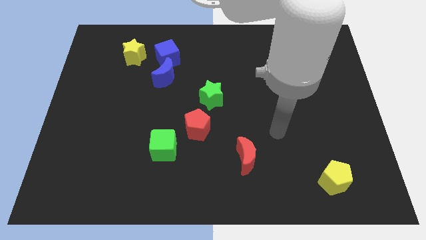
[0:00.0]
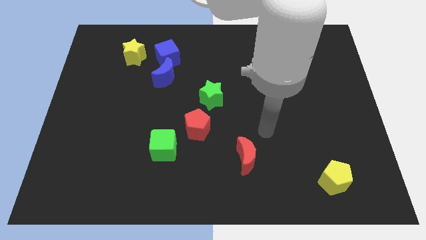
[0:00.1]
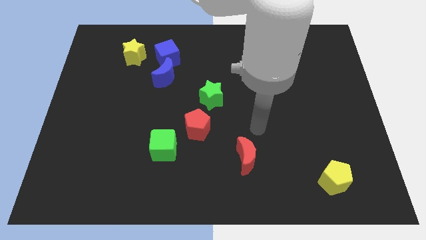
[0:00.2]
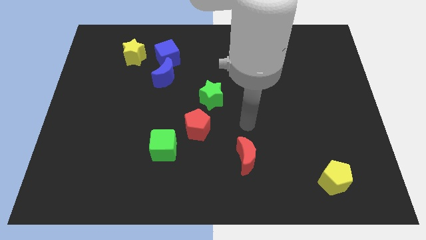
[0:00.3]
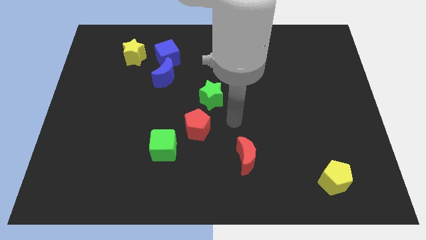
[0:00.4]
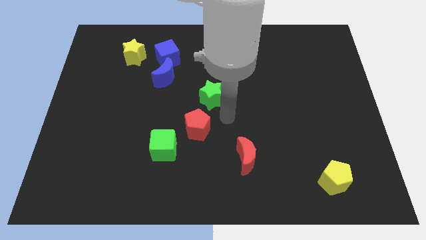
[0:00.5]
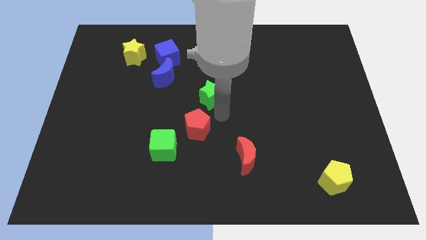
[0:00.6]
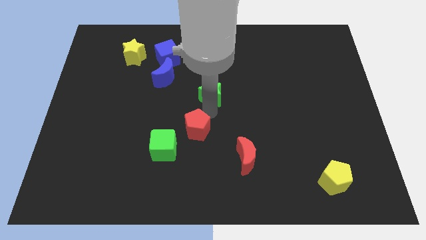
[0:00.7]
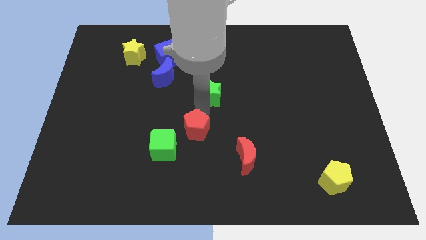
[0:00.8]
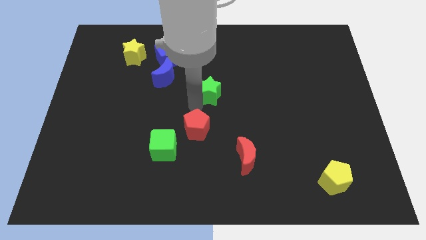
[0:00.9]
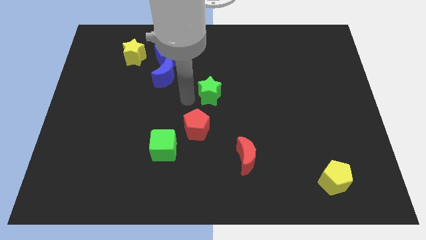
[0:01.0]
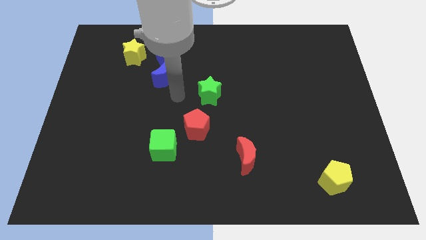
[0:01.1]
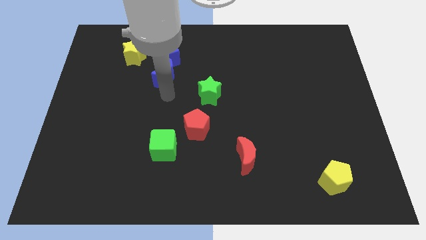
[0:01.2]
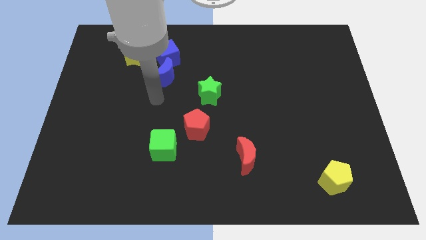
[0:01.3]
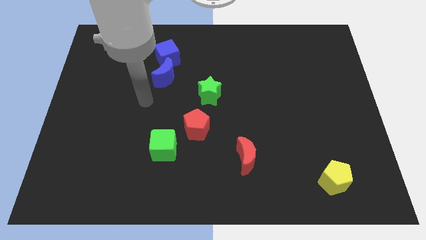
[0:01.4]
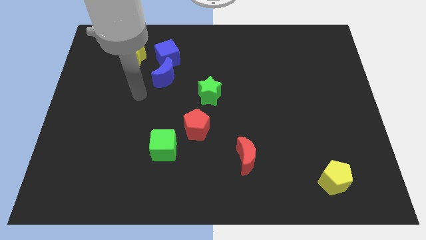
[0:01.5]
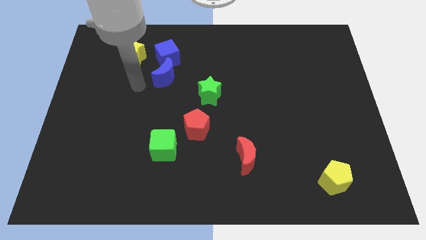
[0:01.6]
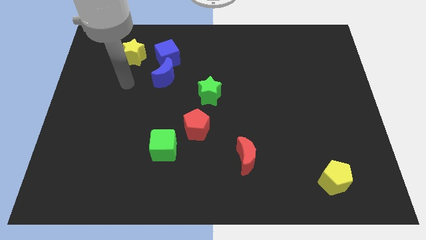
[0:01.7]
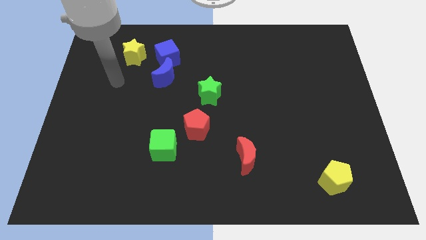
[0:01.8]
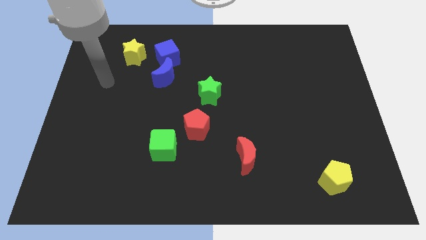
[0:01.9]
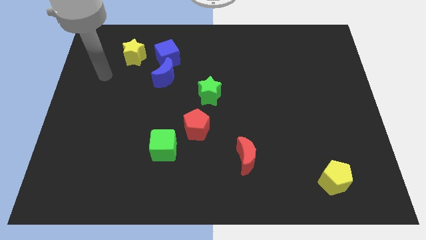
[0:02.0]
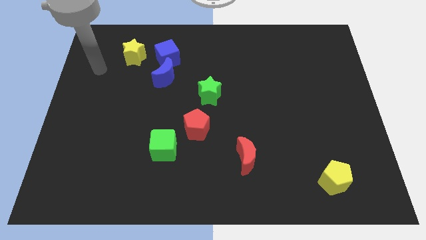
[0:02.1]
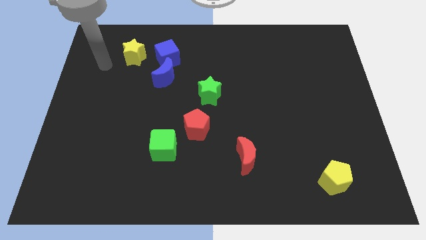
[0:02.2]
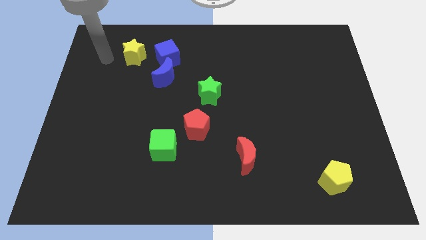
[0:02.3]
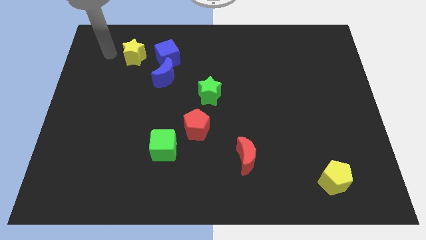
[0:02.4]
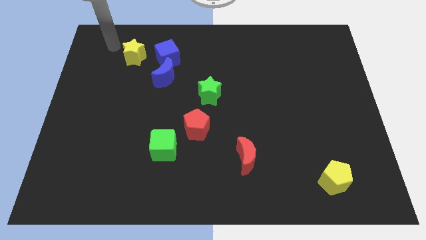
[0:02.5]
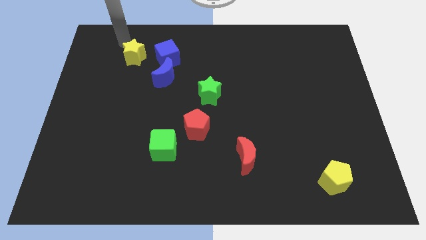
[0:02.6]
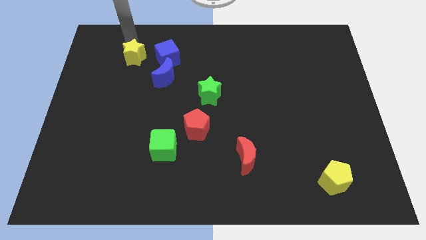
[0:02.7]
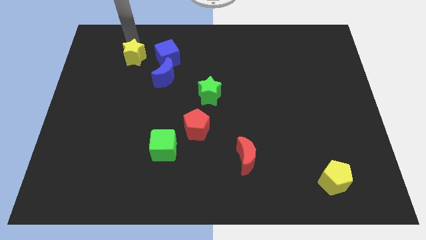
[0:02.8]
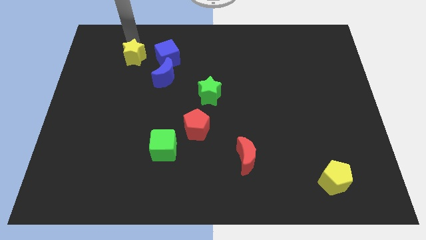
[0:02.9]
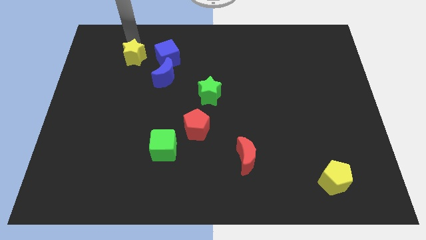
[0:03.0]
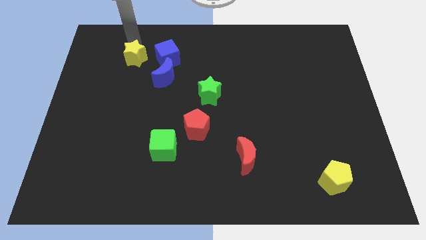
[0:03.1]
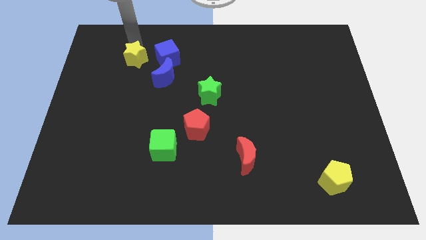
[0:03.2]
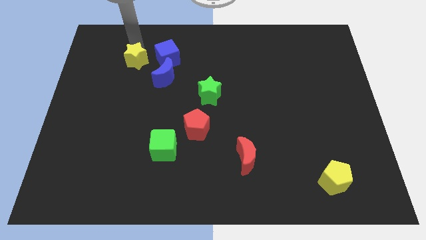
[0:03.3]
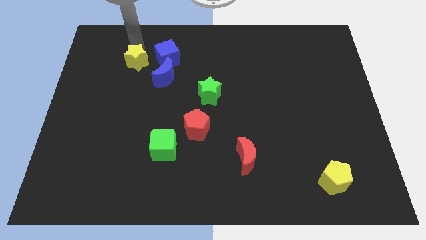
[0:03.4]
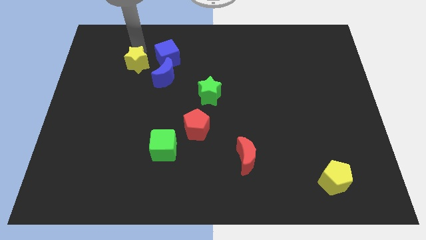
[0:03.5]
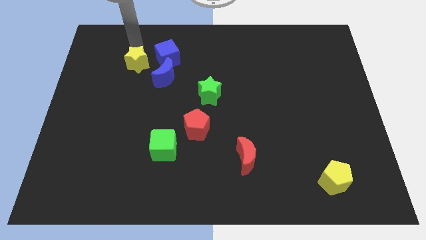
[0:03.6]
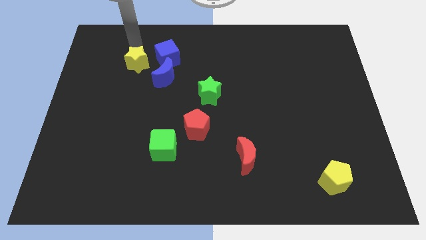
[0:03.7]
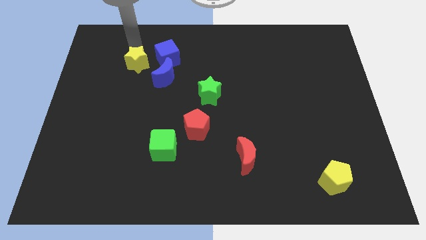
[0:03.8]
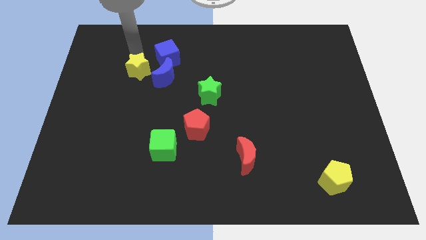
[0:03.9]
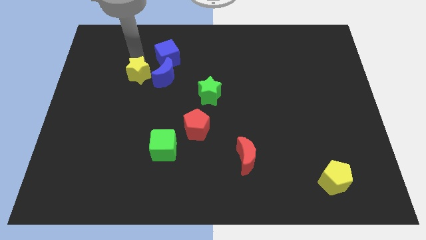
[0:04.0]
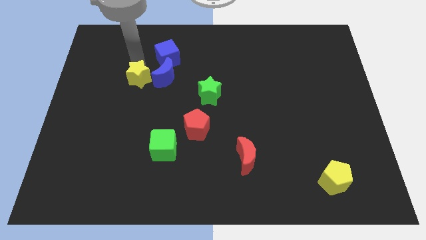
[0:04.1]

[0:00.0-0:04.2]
slightly move the yellow star down

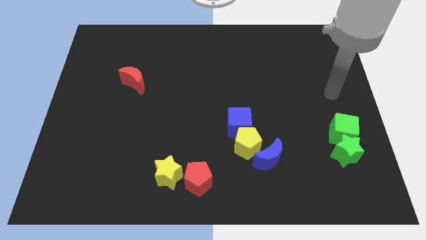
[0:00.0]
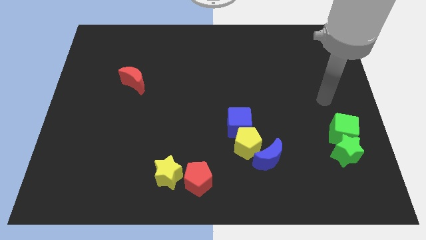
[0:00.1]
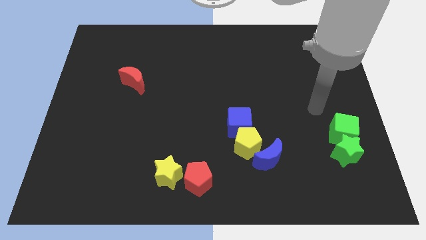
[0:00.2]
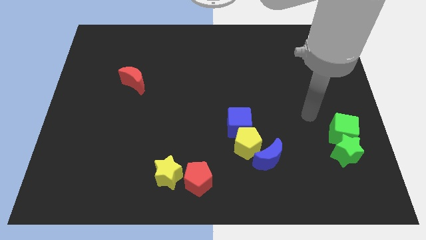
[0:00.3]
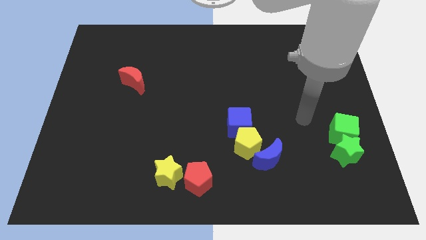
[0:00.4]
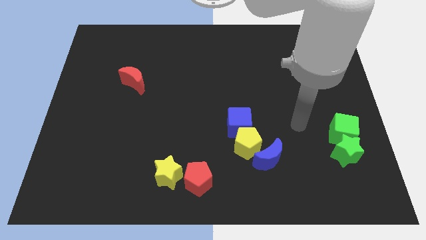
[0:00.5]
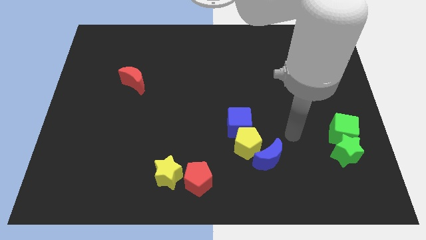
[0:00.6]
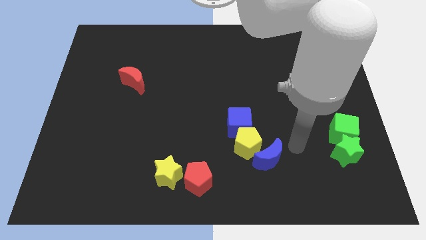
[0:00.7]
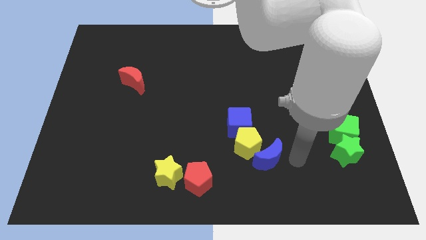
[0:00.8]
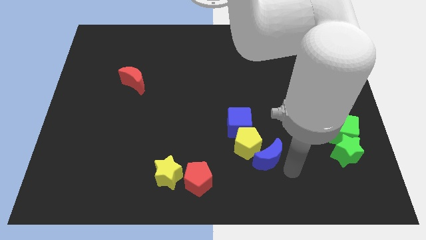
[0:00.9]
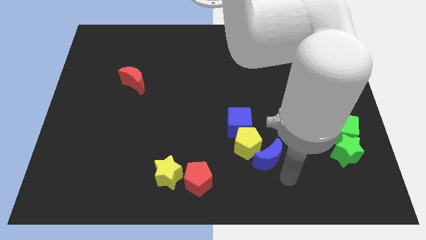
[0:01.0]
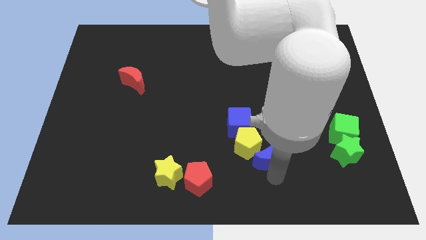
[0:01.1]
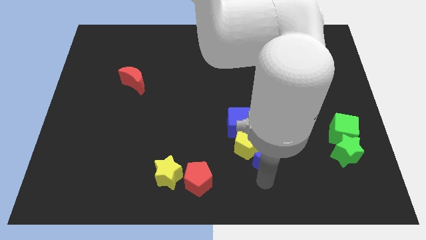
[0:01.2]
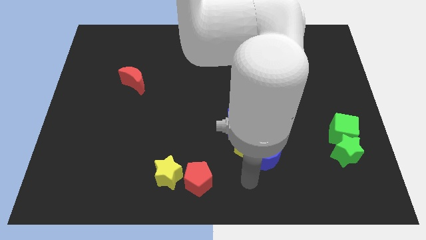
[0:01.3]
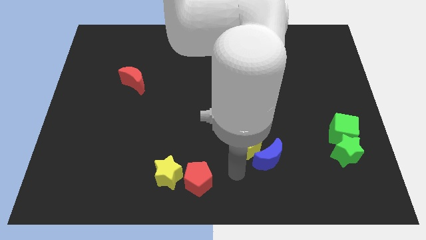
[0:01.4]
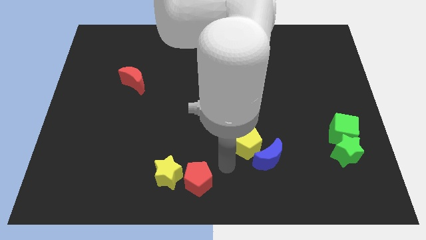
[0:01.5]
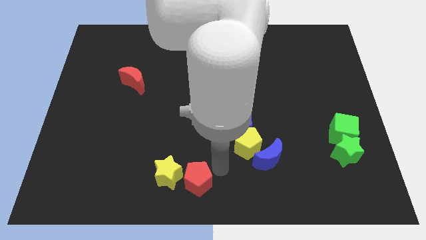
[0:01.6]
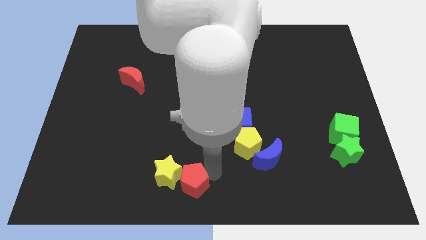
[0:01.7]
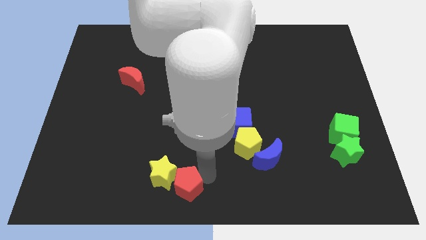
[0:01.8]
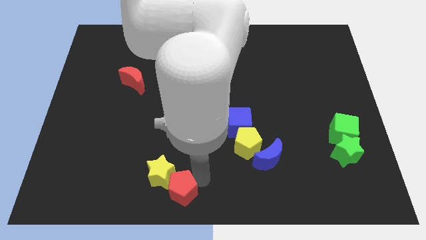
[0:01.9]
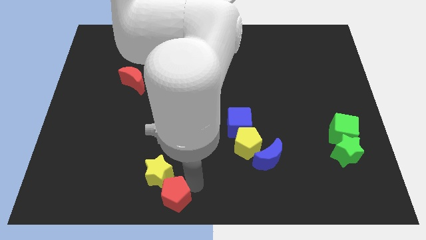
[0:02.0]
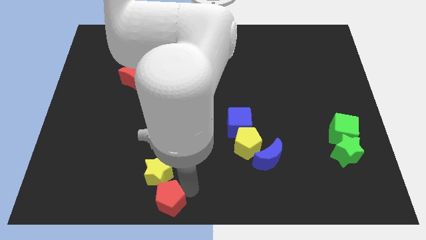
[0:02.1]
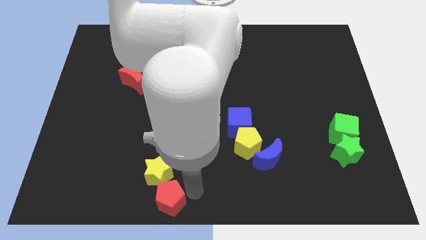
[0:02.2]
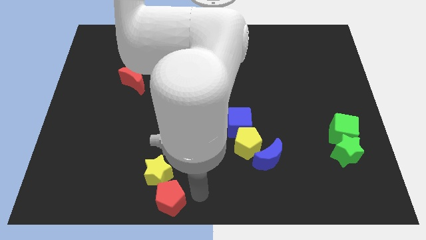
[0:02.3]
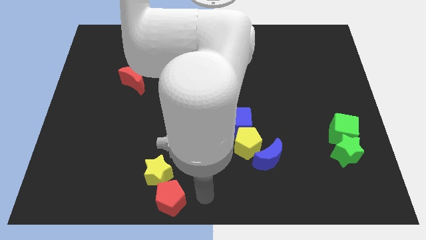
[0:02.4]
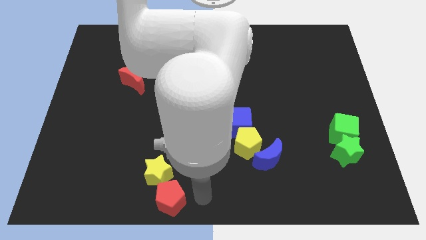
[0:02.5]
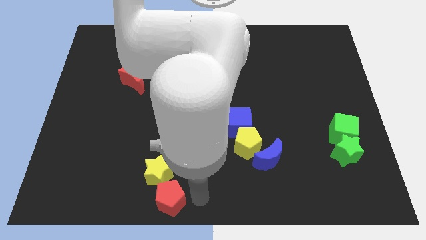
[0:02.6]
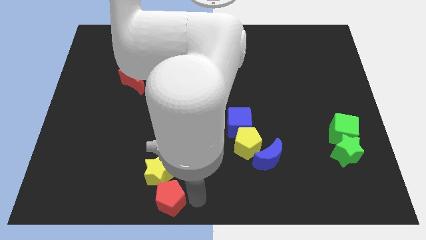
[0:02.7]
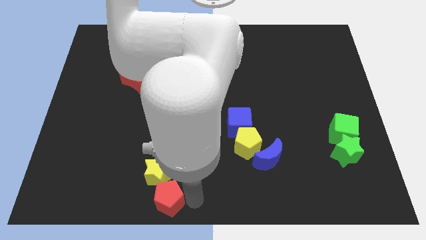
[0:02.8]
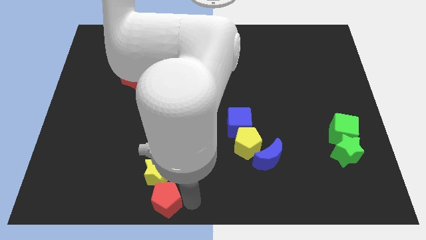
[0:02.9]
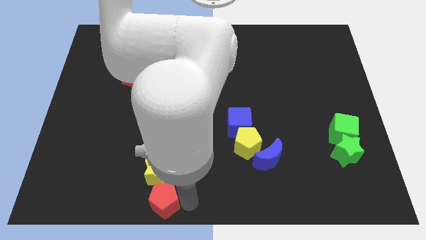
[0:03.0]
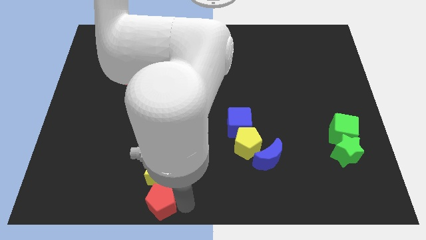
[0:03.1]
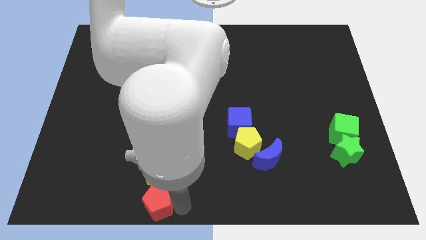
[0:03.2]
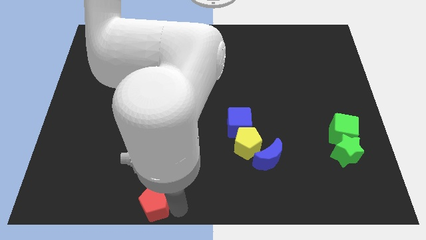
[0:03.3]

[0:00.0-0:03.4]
slightly move the red pentagon left

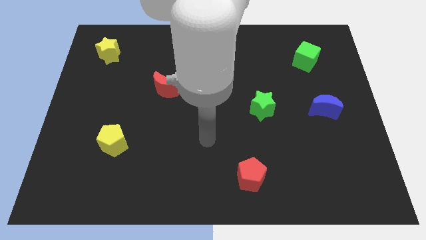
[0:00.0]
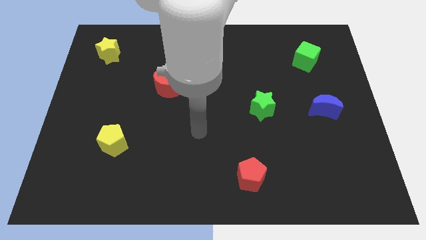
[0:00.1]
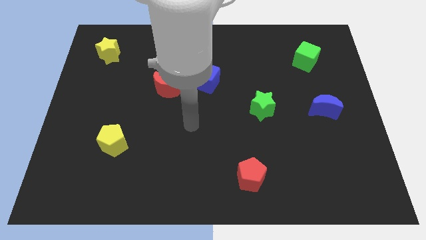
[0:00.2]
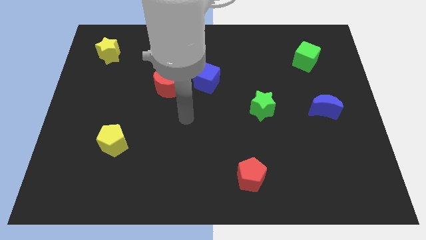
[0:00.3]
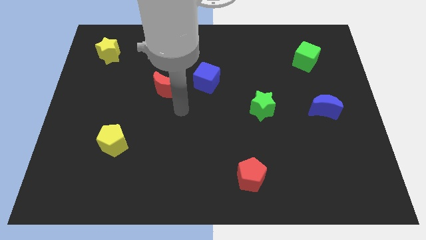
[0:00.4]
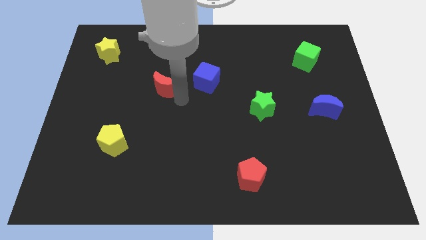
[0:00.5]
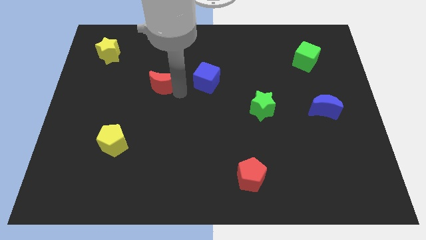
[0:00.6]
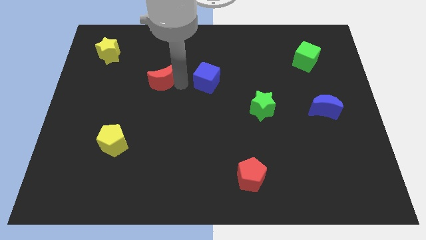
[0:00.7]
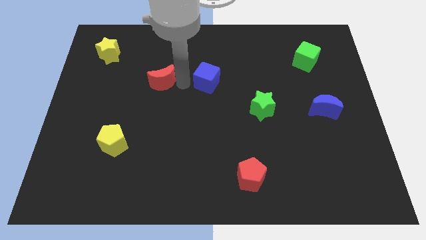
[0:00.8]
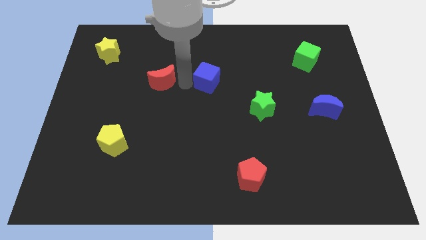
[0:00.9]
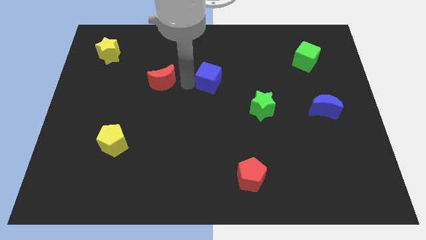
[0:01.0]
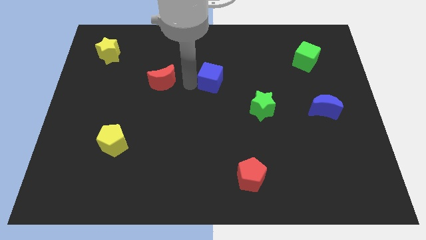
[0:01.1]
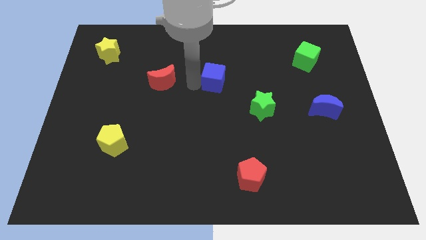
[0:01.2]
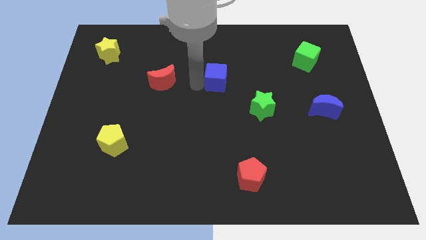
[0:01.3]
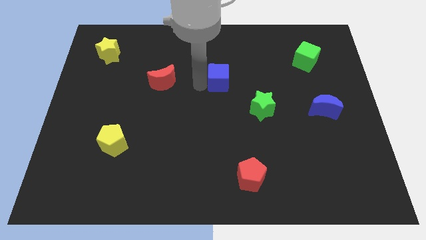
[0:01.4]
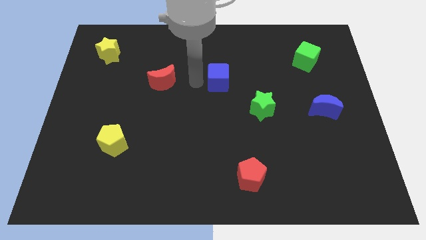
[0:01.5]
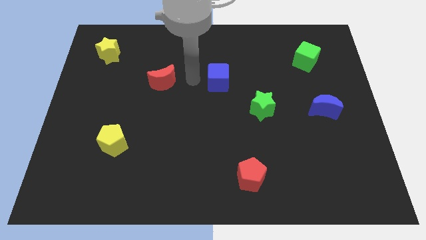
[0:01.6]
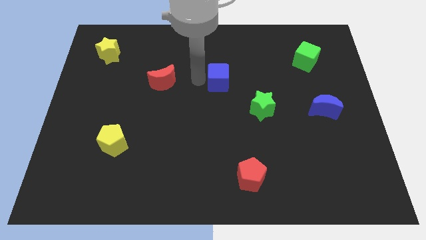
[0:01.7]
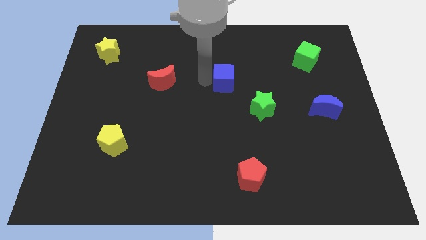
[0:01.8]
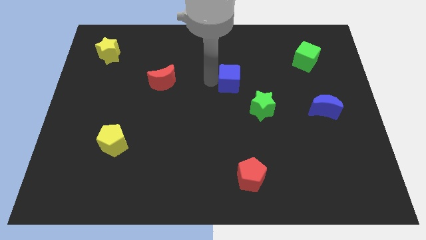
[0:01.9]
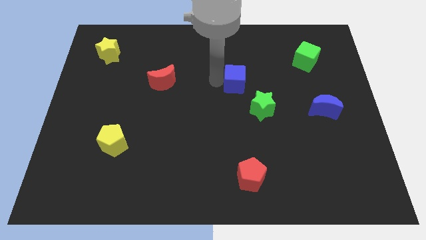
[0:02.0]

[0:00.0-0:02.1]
push the blue cube to the right somewhat
